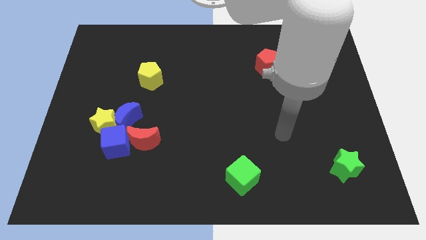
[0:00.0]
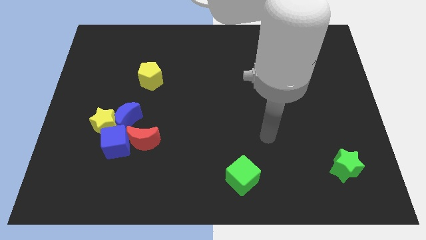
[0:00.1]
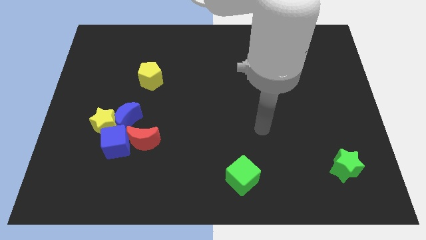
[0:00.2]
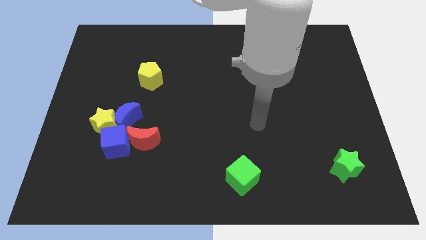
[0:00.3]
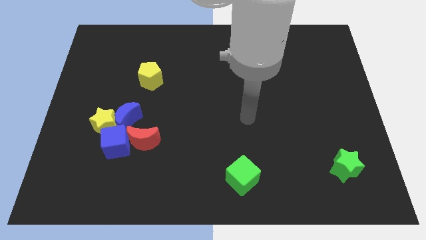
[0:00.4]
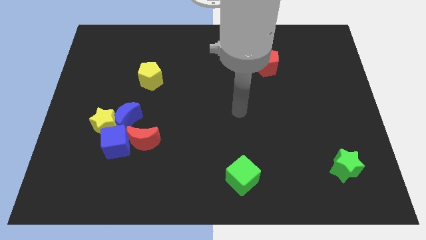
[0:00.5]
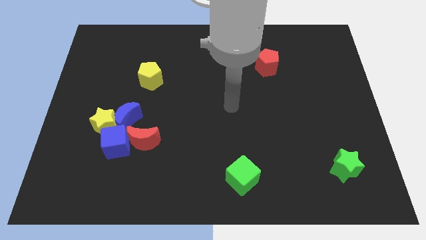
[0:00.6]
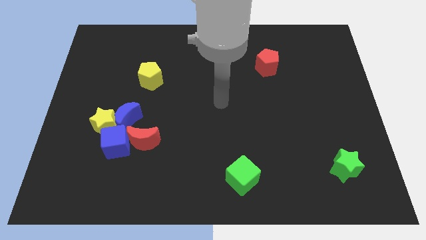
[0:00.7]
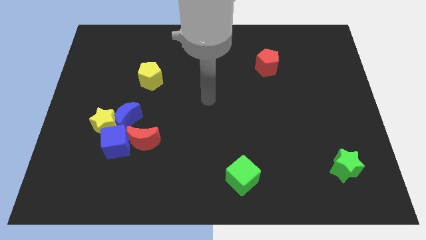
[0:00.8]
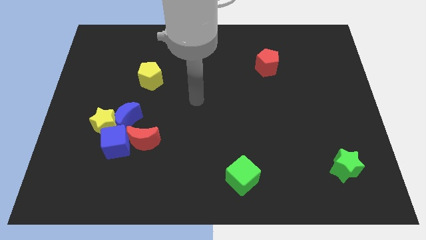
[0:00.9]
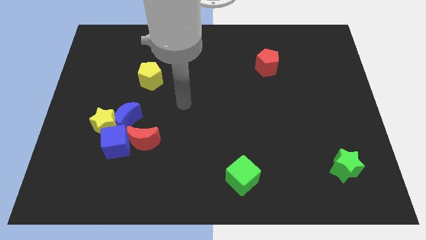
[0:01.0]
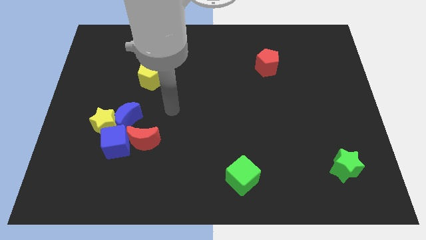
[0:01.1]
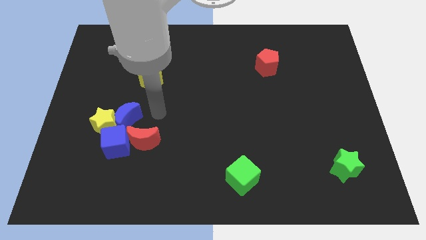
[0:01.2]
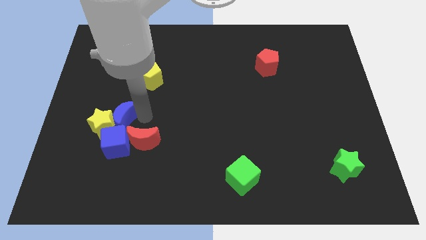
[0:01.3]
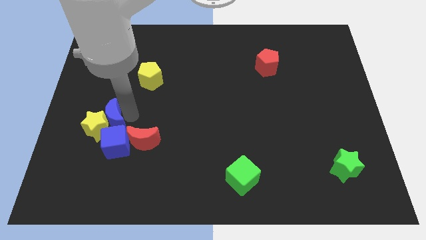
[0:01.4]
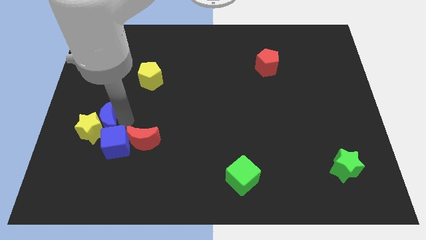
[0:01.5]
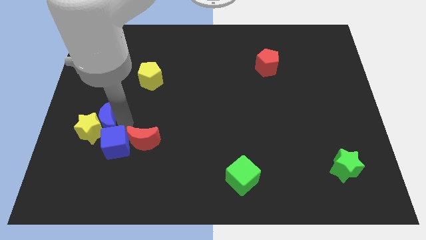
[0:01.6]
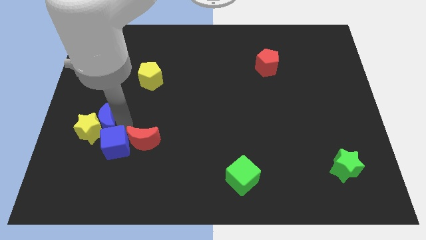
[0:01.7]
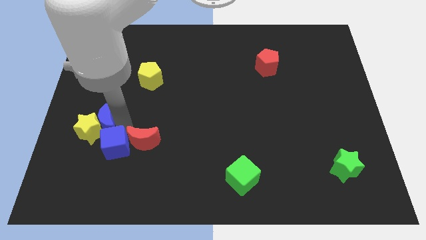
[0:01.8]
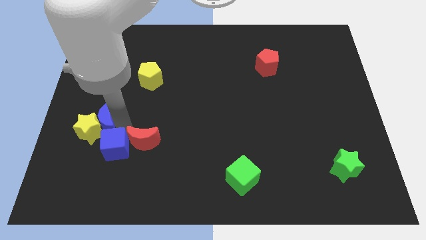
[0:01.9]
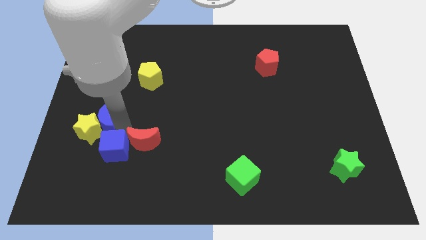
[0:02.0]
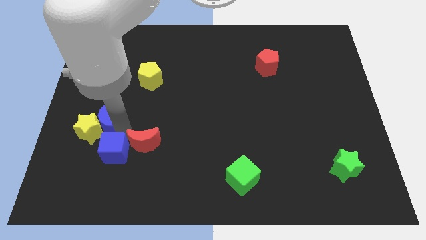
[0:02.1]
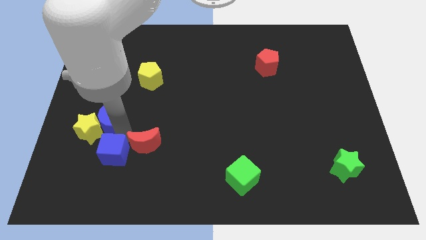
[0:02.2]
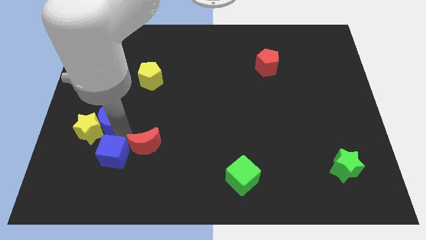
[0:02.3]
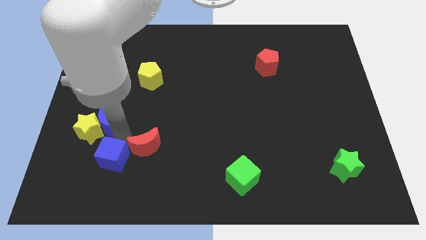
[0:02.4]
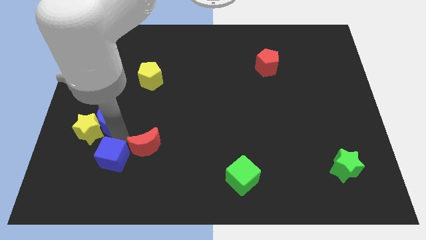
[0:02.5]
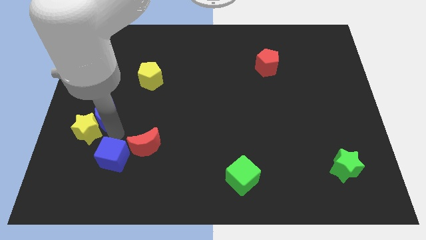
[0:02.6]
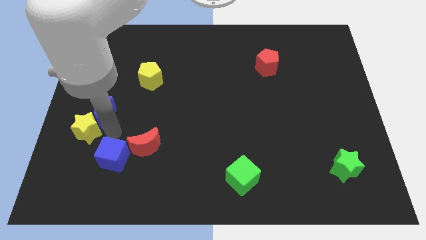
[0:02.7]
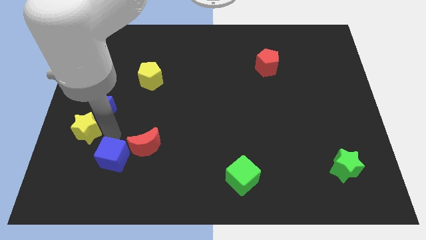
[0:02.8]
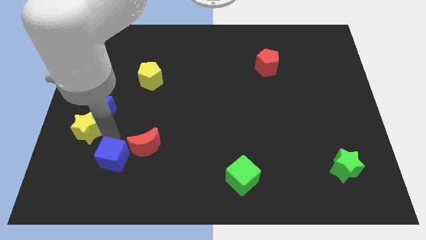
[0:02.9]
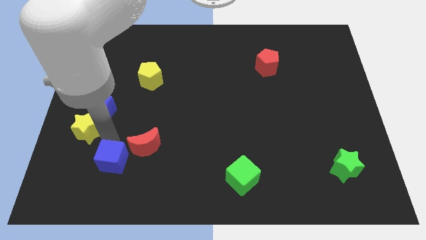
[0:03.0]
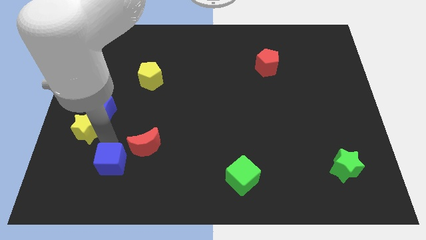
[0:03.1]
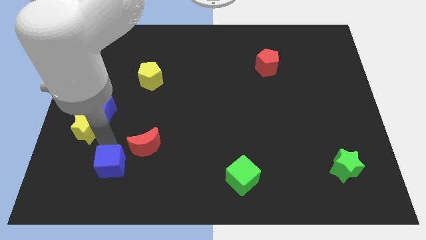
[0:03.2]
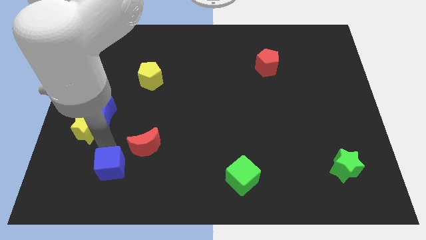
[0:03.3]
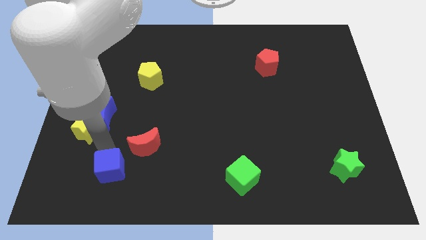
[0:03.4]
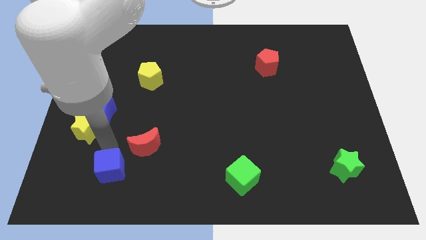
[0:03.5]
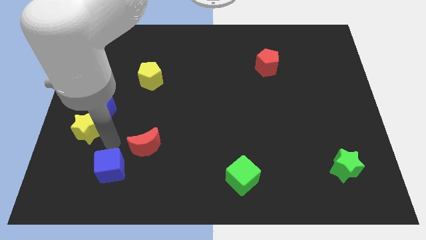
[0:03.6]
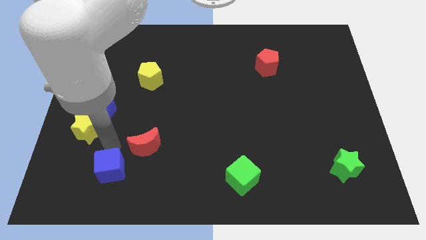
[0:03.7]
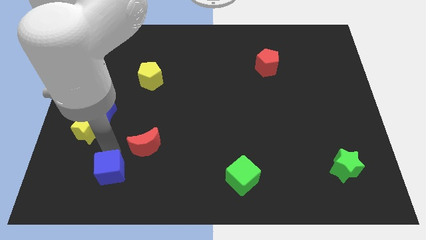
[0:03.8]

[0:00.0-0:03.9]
move the blue cube away from the red moon, yellow star, and blue moon

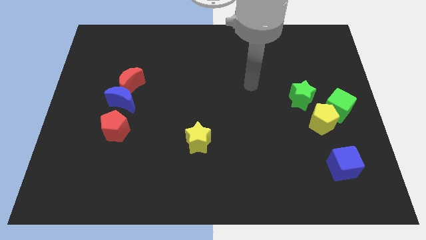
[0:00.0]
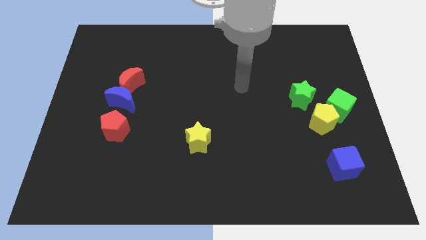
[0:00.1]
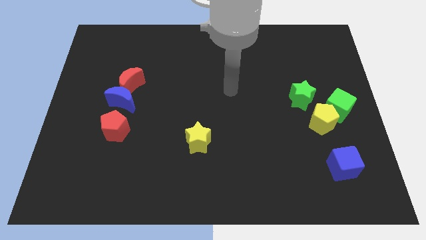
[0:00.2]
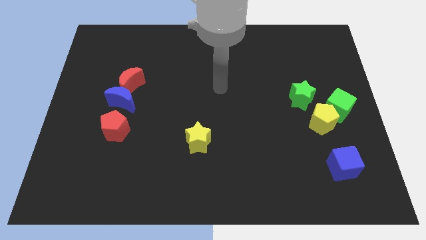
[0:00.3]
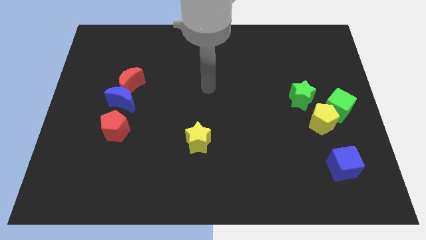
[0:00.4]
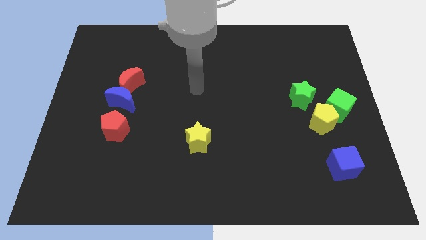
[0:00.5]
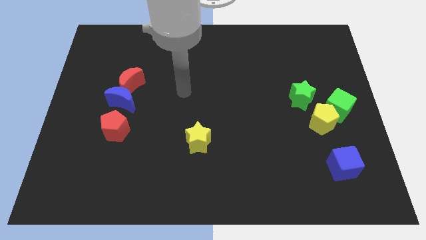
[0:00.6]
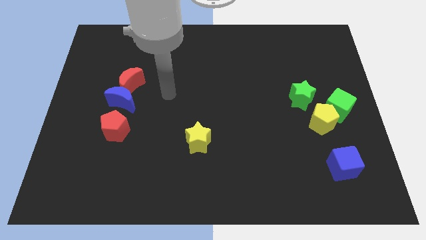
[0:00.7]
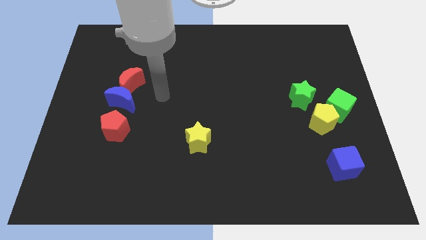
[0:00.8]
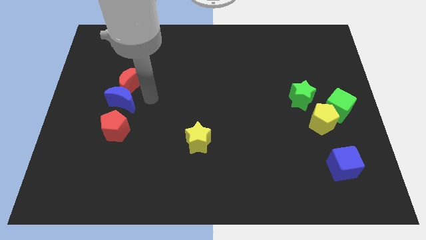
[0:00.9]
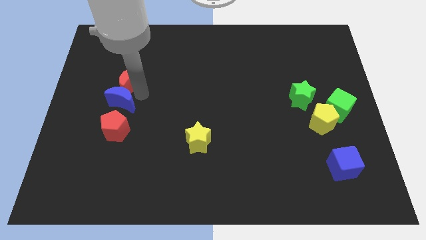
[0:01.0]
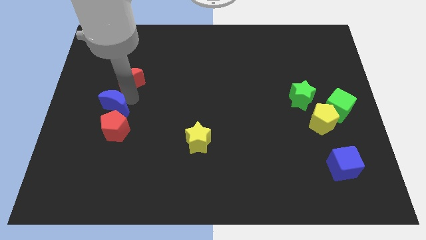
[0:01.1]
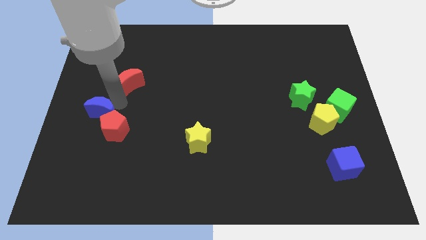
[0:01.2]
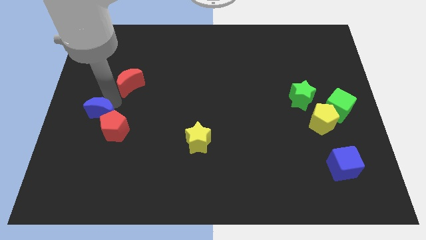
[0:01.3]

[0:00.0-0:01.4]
pull the red moon apart from the blue moon

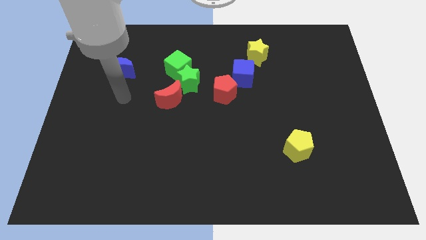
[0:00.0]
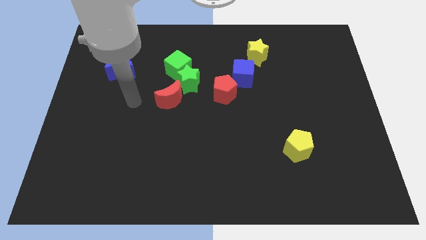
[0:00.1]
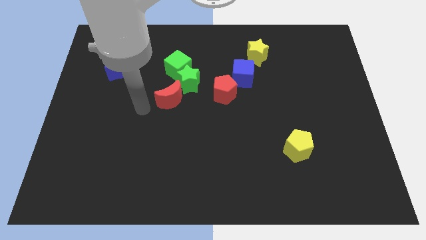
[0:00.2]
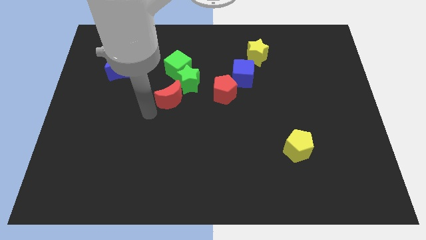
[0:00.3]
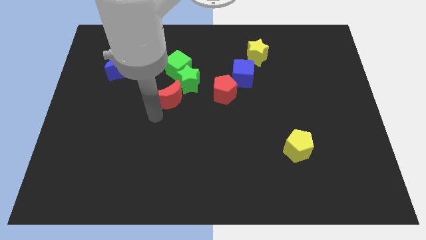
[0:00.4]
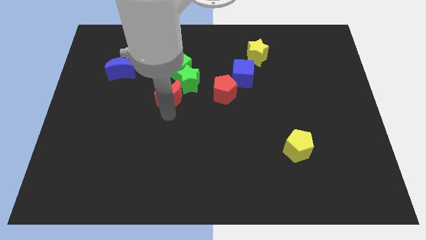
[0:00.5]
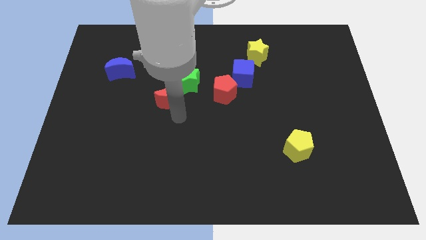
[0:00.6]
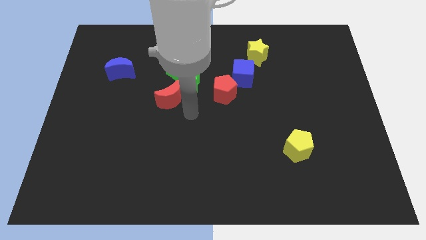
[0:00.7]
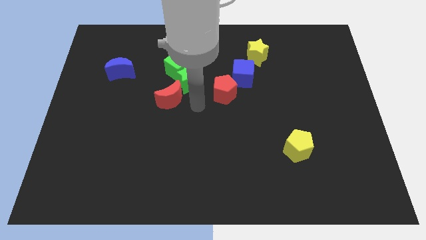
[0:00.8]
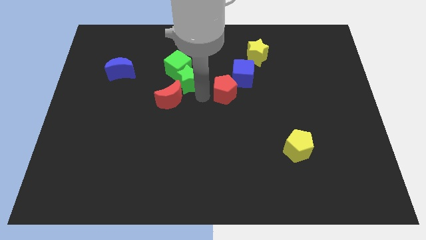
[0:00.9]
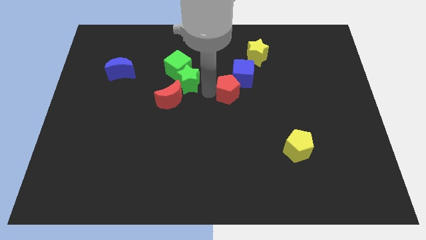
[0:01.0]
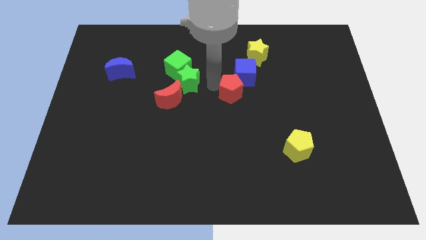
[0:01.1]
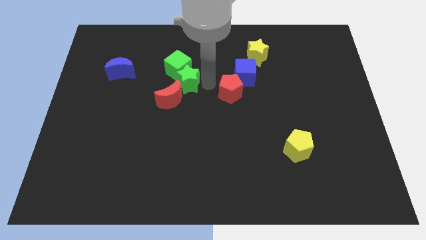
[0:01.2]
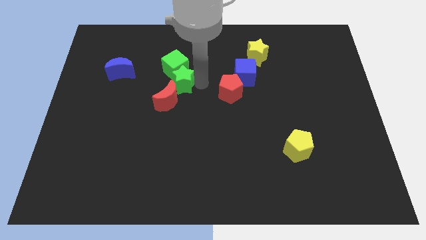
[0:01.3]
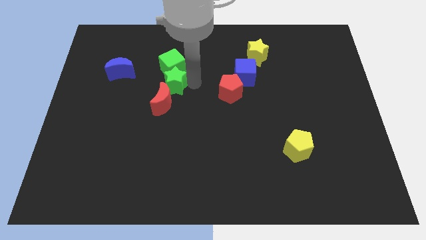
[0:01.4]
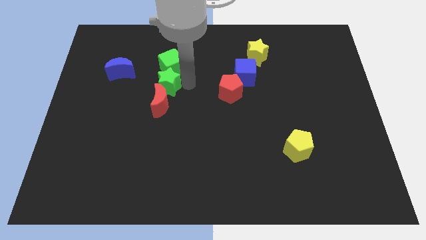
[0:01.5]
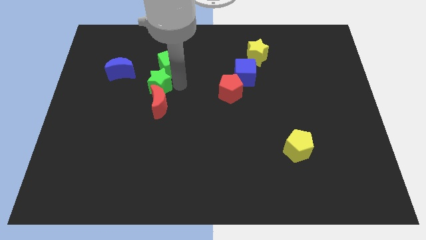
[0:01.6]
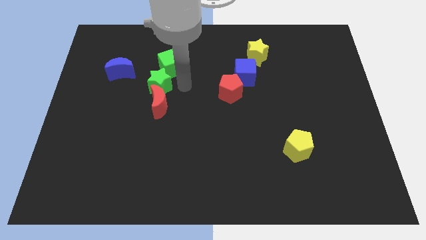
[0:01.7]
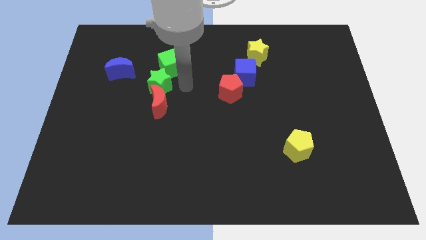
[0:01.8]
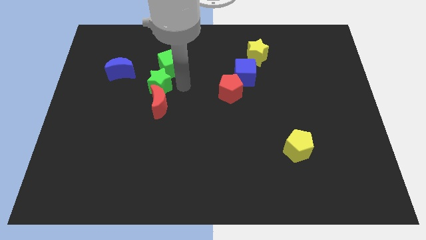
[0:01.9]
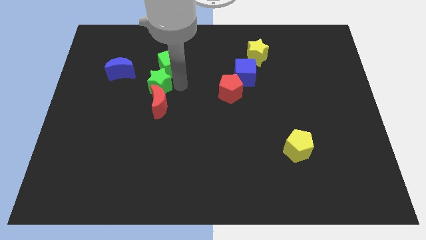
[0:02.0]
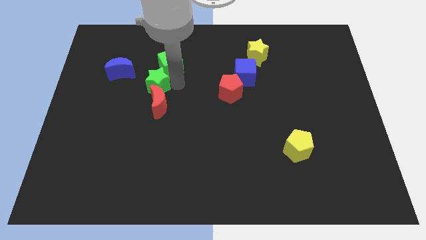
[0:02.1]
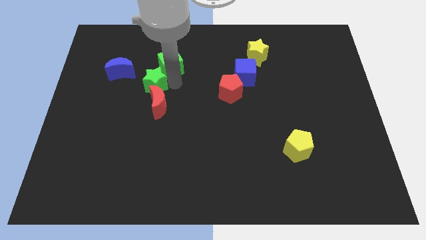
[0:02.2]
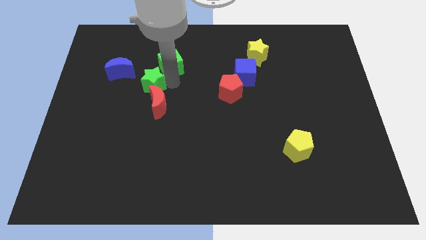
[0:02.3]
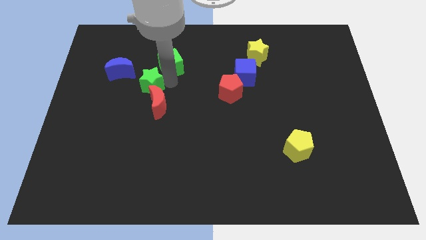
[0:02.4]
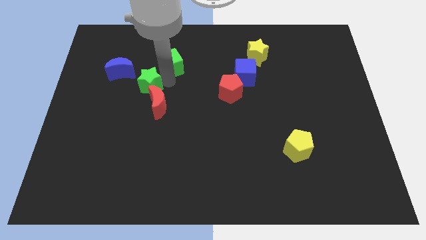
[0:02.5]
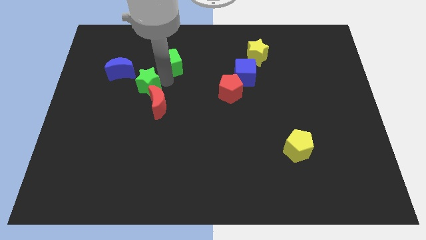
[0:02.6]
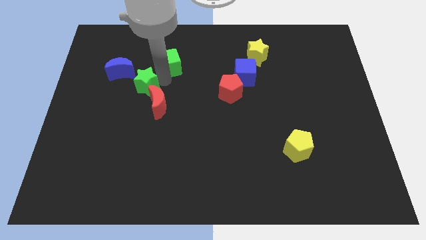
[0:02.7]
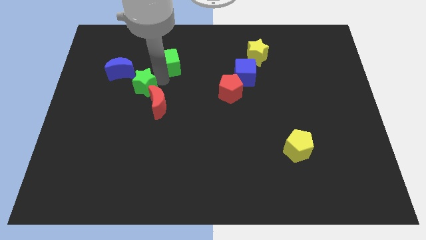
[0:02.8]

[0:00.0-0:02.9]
pull the green star apart from the group of blocks

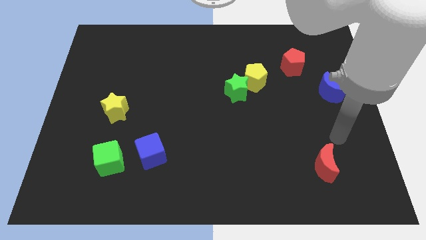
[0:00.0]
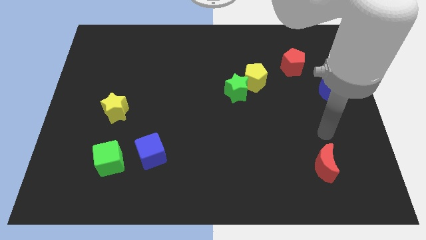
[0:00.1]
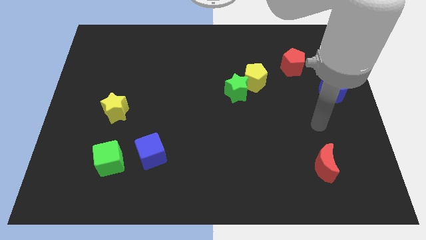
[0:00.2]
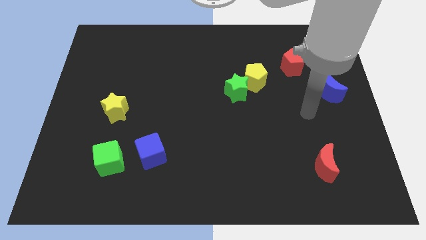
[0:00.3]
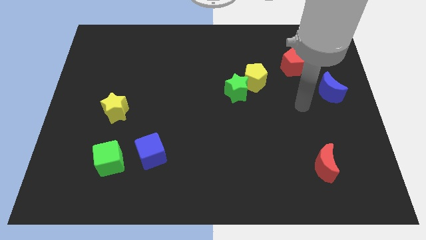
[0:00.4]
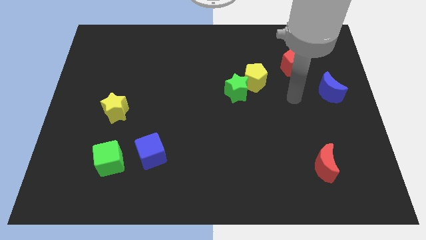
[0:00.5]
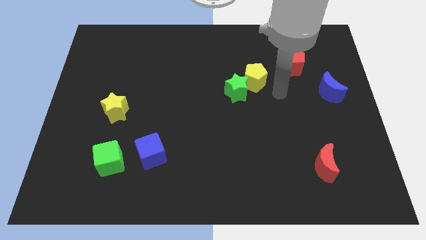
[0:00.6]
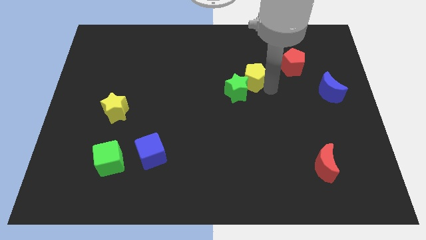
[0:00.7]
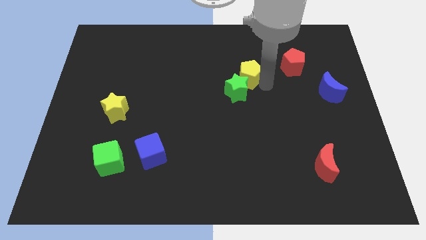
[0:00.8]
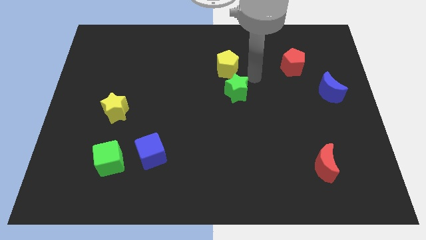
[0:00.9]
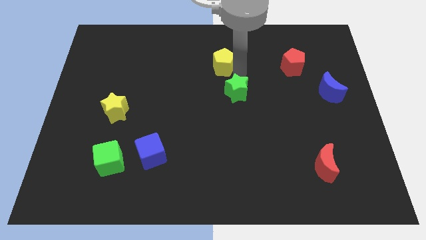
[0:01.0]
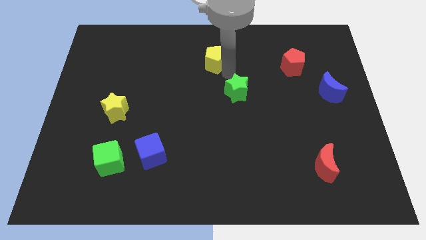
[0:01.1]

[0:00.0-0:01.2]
separate the green star from the yellow pentagon
